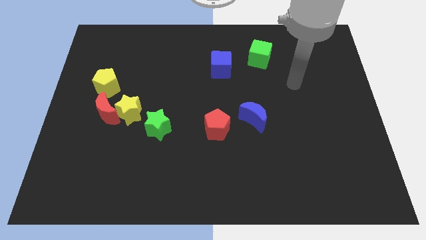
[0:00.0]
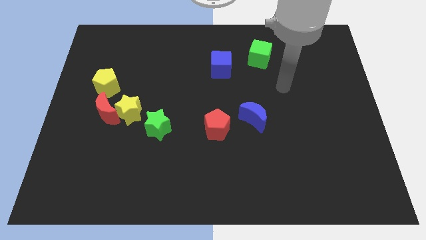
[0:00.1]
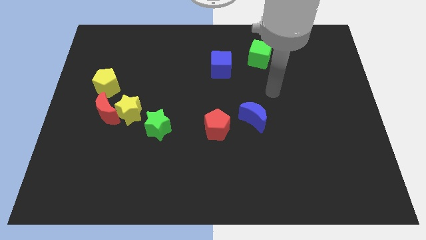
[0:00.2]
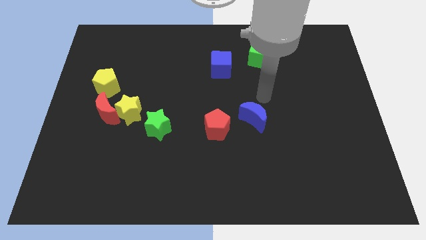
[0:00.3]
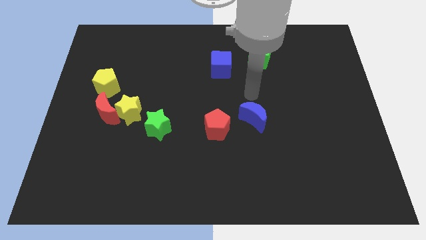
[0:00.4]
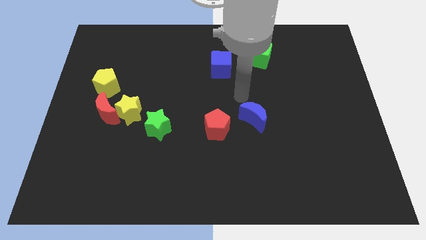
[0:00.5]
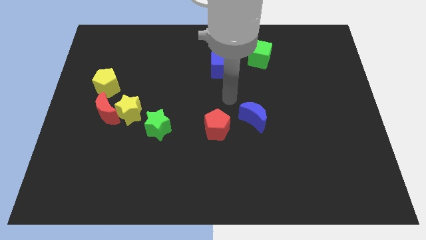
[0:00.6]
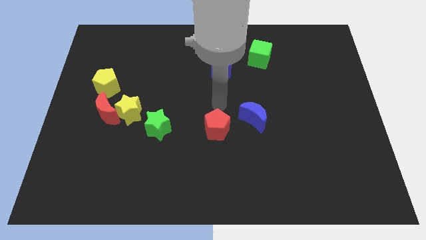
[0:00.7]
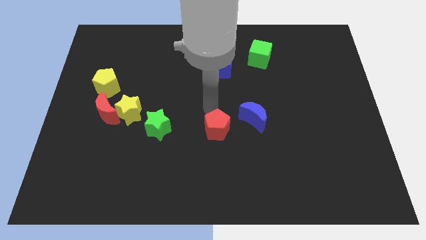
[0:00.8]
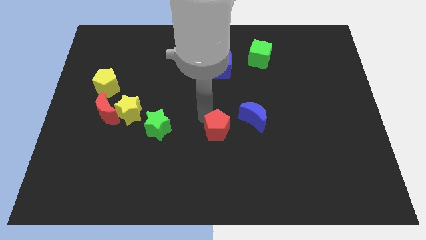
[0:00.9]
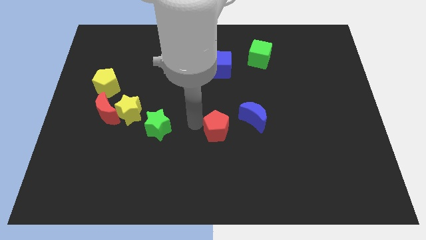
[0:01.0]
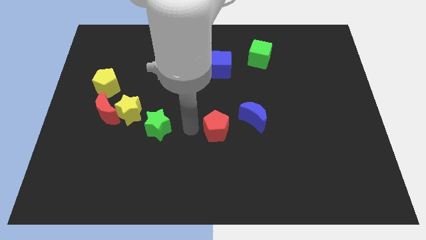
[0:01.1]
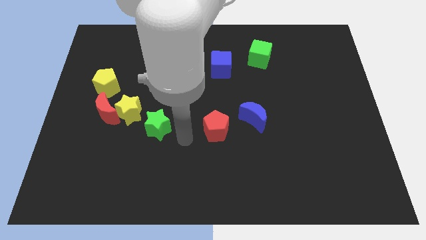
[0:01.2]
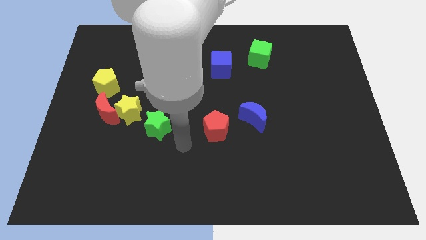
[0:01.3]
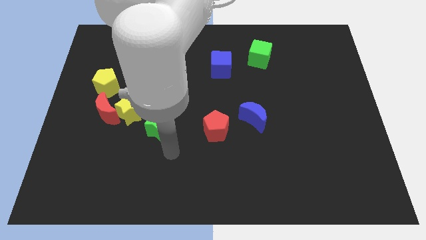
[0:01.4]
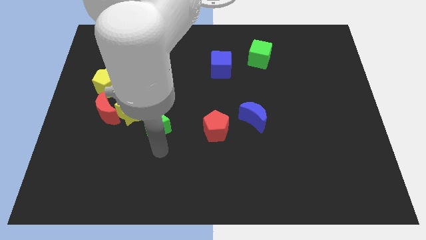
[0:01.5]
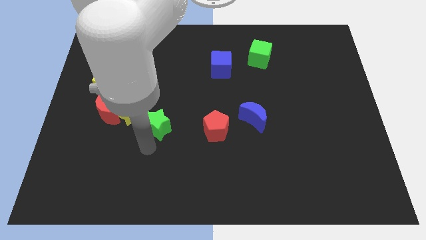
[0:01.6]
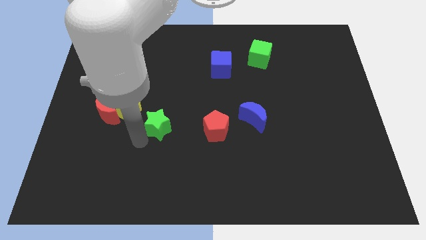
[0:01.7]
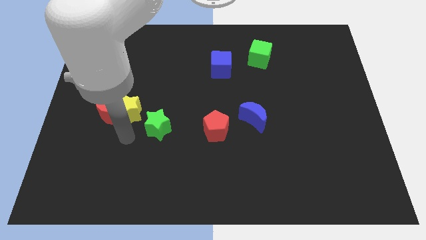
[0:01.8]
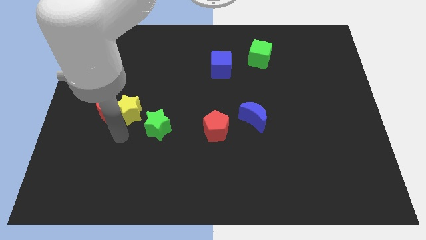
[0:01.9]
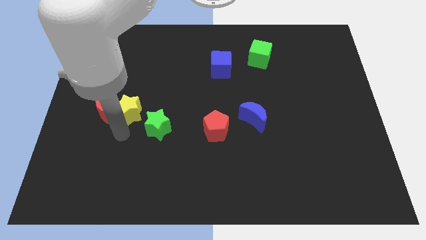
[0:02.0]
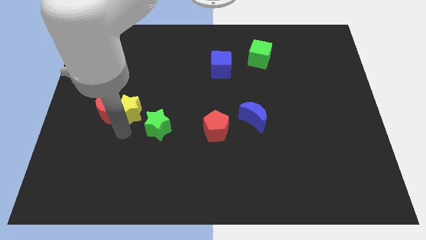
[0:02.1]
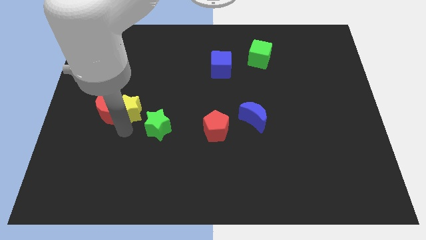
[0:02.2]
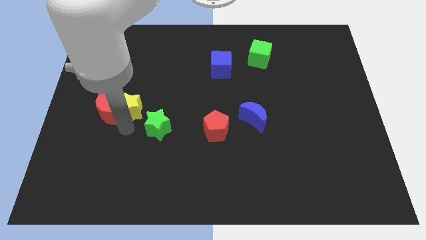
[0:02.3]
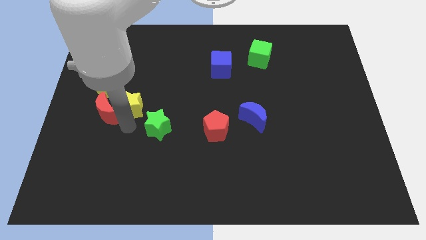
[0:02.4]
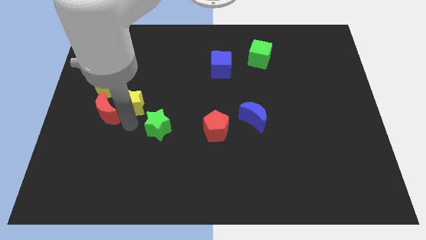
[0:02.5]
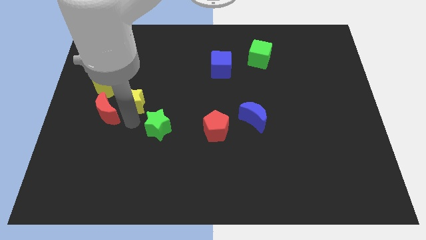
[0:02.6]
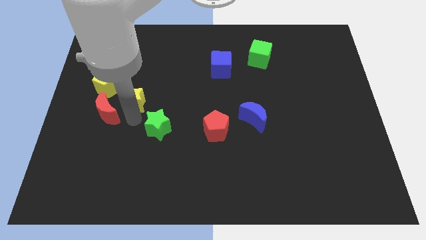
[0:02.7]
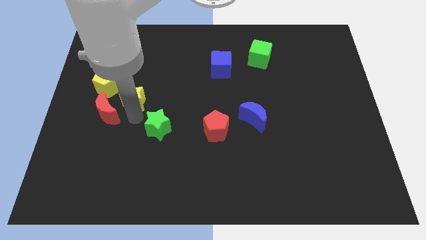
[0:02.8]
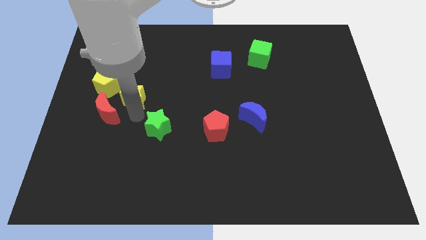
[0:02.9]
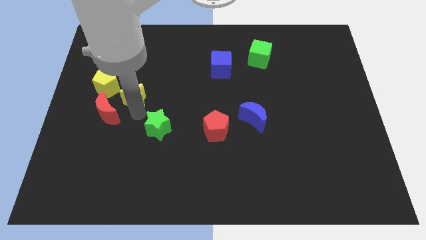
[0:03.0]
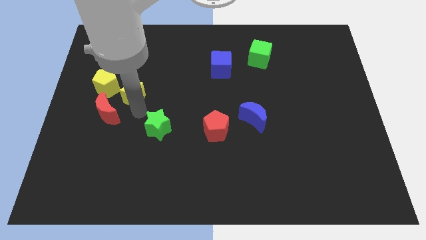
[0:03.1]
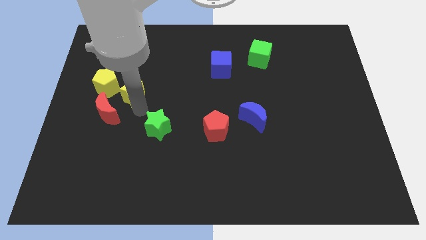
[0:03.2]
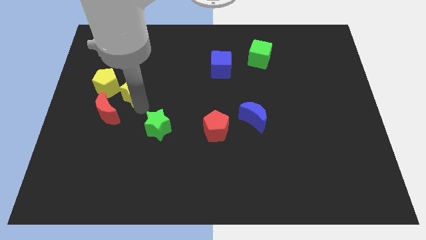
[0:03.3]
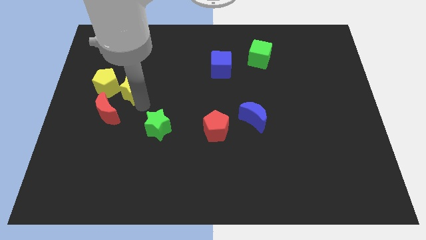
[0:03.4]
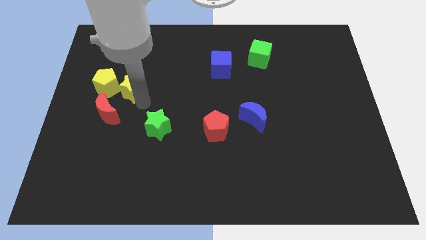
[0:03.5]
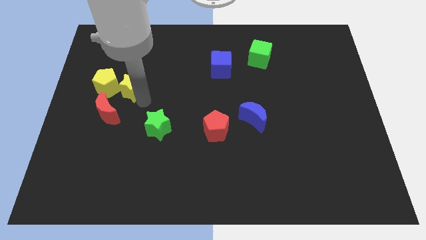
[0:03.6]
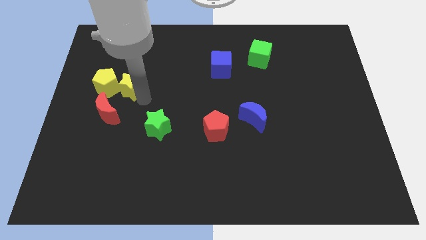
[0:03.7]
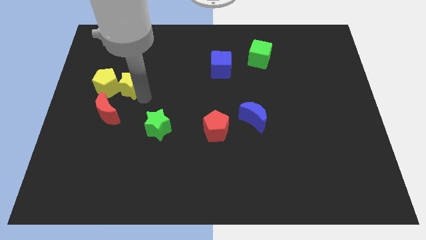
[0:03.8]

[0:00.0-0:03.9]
move the yellow star away from the red moon and green star

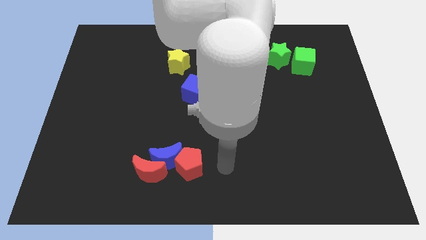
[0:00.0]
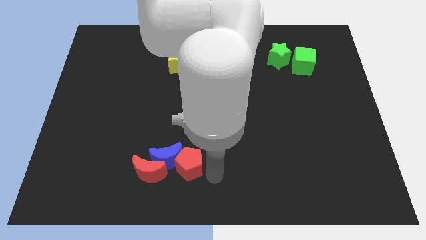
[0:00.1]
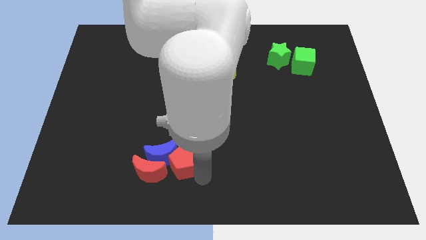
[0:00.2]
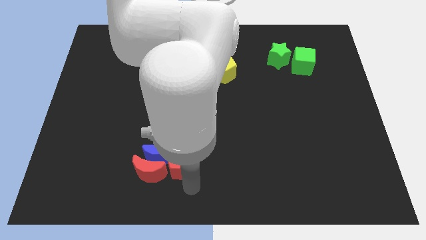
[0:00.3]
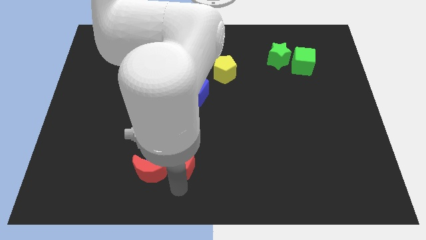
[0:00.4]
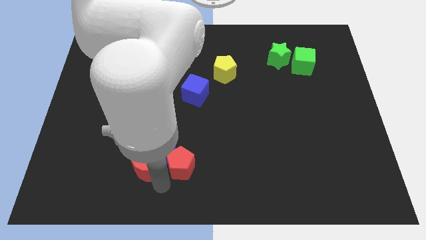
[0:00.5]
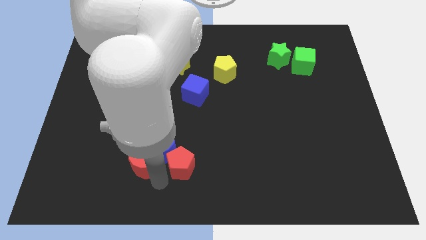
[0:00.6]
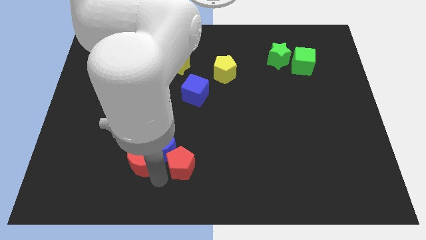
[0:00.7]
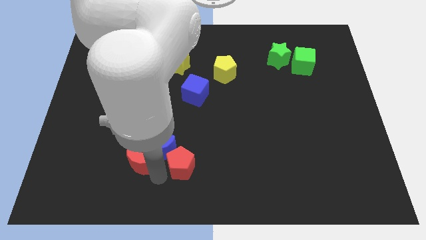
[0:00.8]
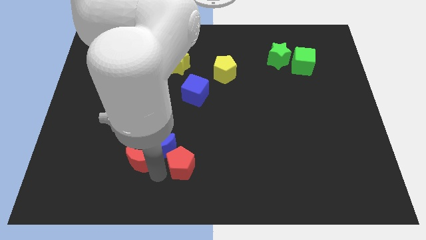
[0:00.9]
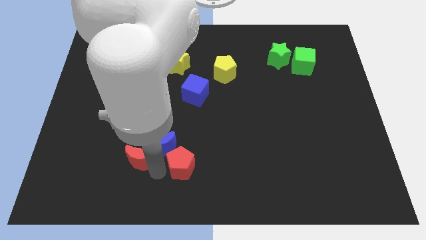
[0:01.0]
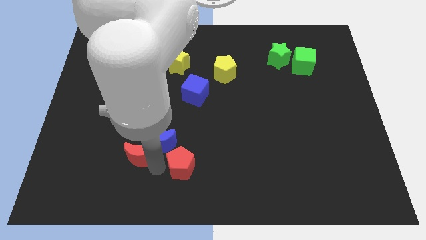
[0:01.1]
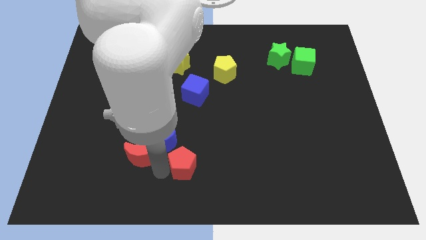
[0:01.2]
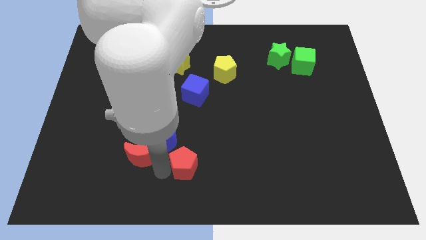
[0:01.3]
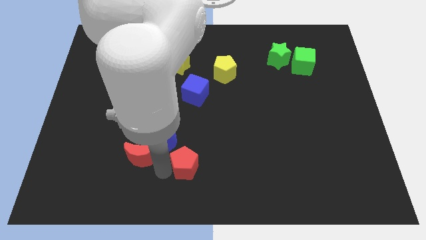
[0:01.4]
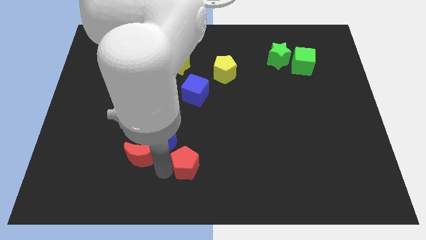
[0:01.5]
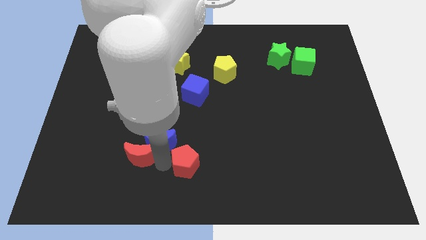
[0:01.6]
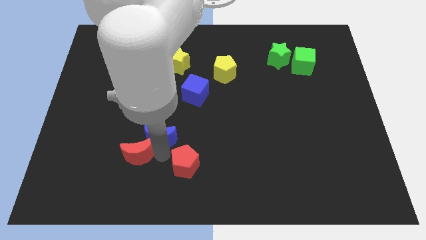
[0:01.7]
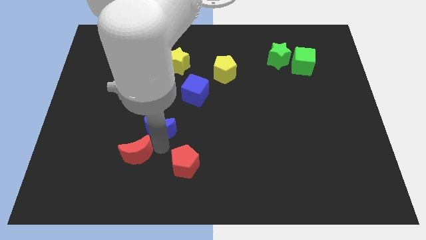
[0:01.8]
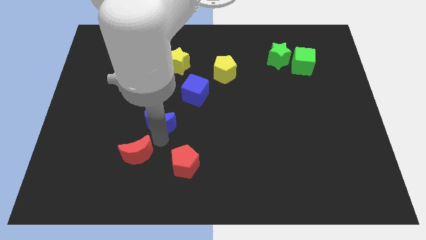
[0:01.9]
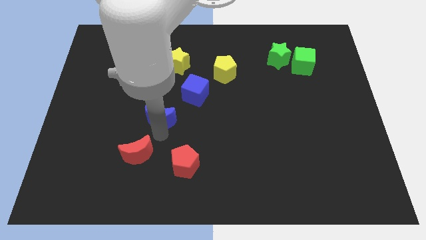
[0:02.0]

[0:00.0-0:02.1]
pull the blue moon apart from the red moon and red pentagon

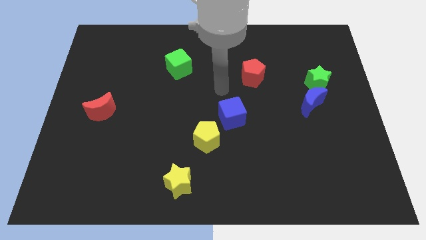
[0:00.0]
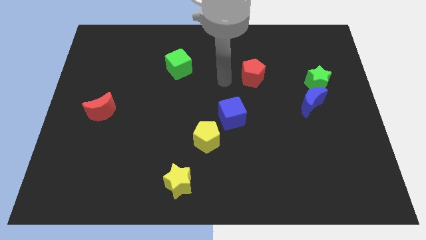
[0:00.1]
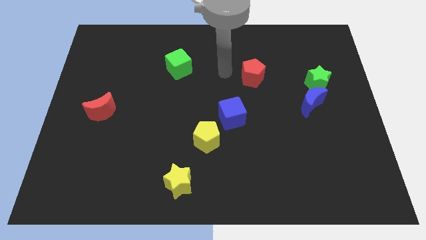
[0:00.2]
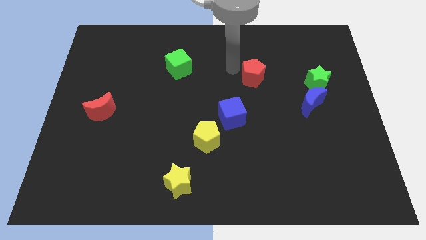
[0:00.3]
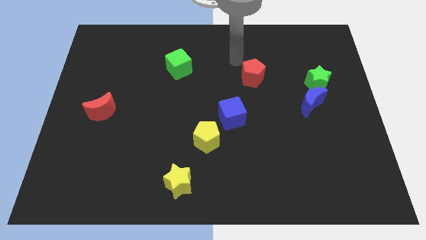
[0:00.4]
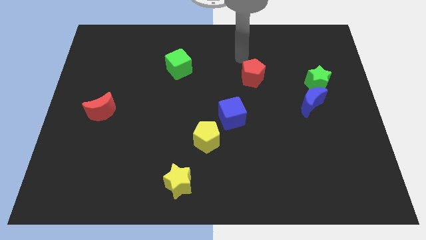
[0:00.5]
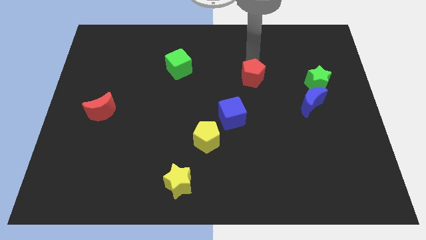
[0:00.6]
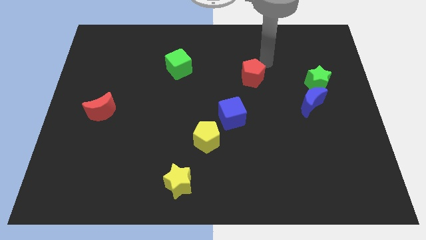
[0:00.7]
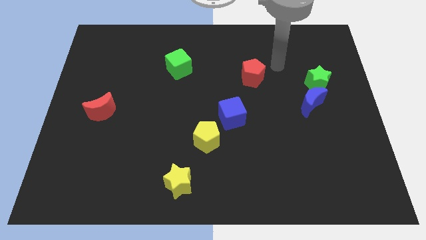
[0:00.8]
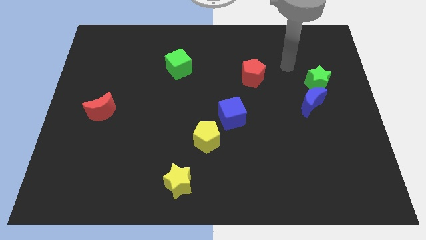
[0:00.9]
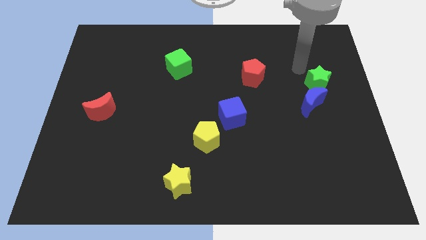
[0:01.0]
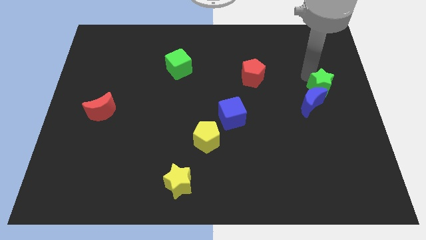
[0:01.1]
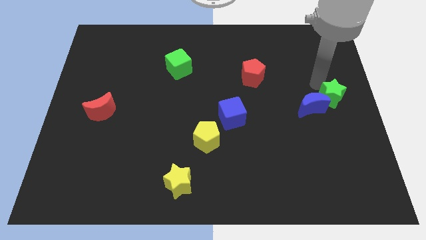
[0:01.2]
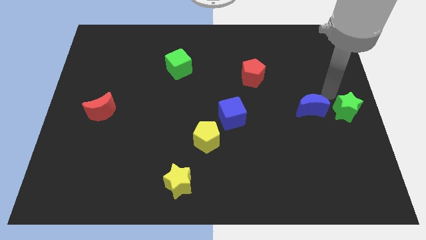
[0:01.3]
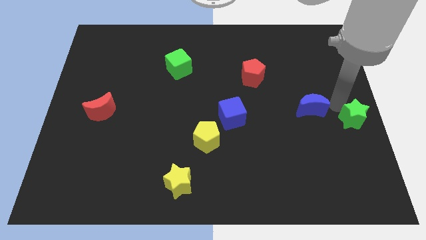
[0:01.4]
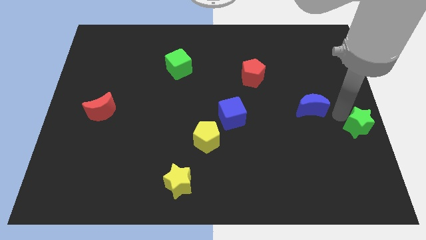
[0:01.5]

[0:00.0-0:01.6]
separate the blue moon from the green star

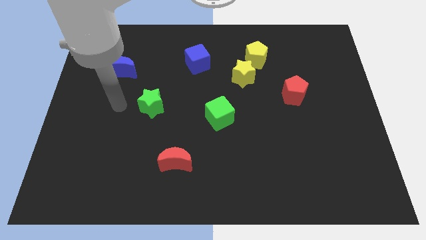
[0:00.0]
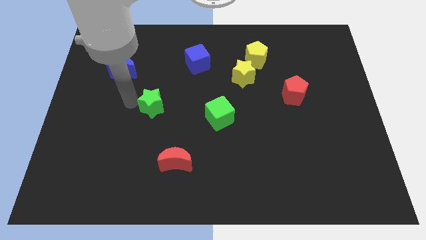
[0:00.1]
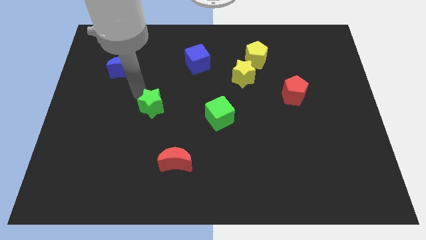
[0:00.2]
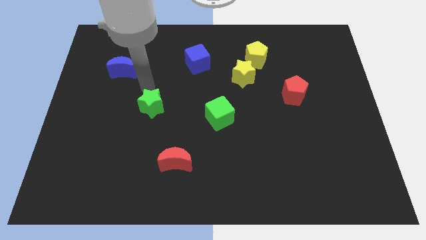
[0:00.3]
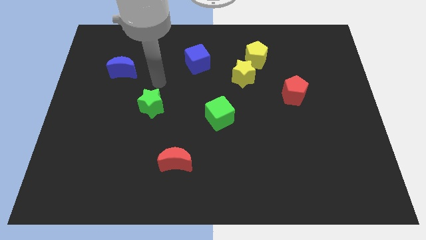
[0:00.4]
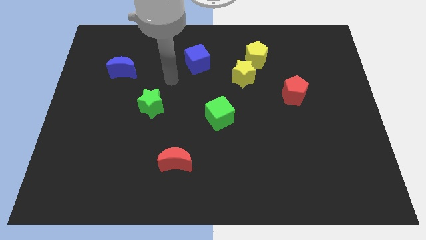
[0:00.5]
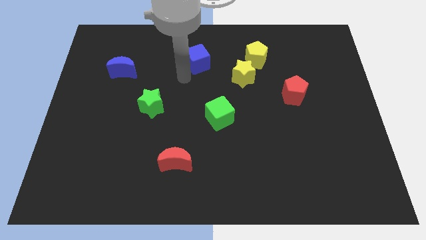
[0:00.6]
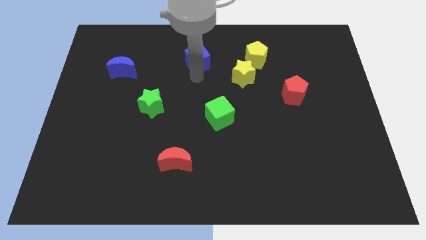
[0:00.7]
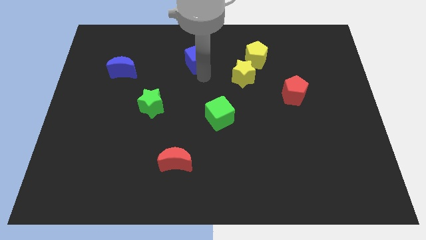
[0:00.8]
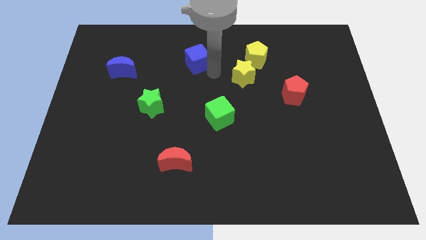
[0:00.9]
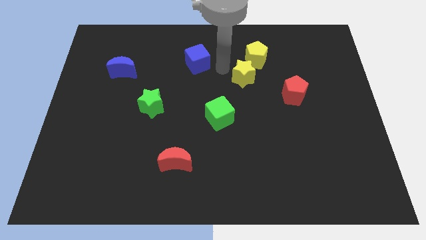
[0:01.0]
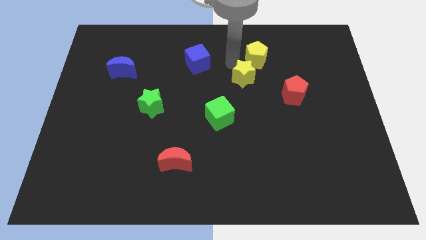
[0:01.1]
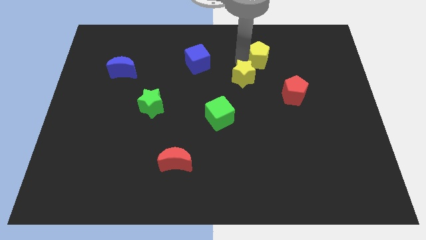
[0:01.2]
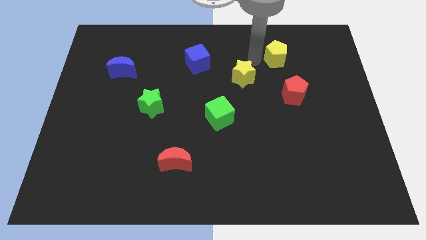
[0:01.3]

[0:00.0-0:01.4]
separate the yellow star from the yellow pentagon

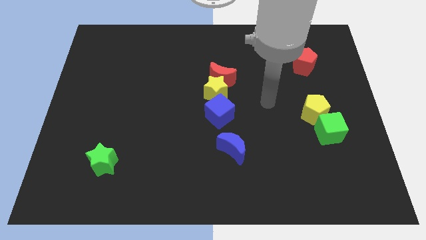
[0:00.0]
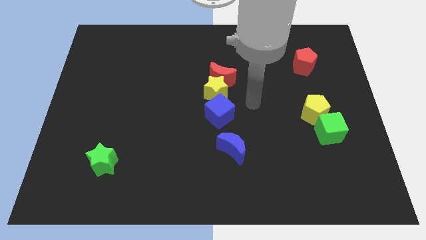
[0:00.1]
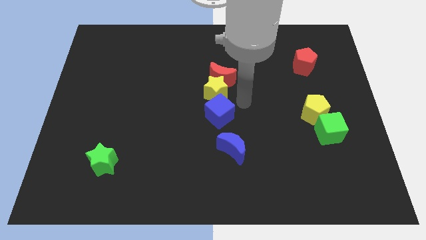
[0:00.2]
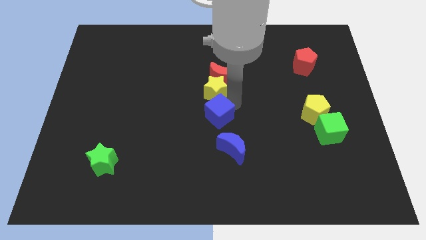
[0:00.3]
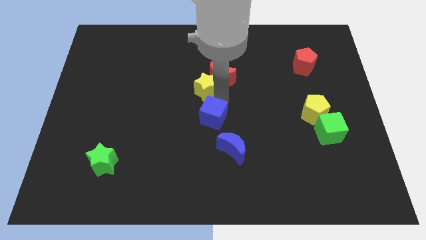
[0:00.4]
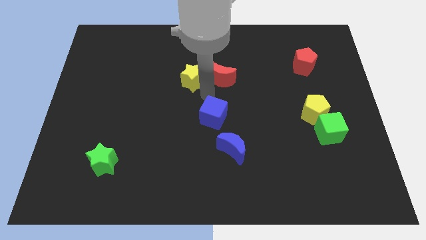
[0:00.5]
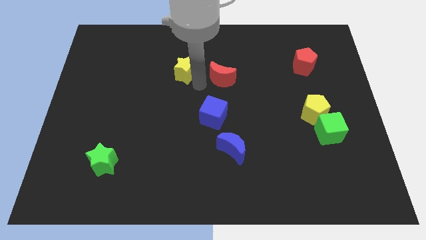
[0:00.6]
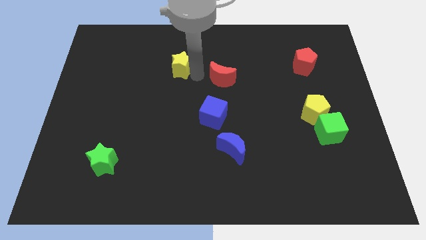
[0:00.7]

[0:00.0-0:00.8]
move the red moon away from the yellow star
